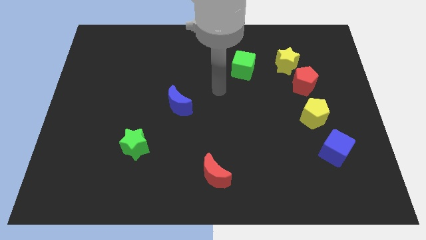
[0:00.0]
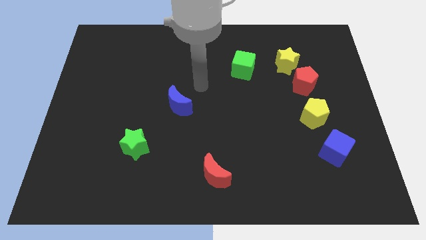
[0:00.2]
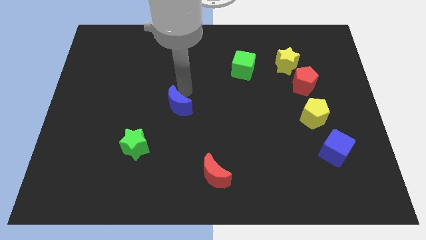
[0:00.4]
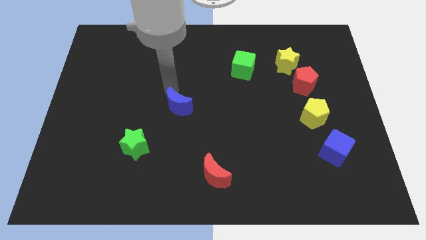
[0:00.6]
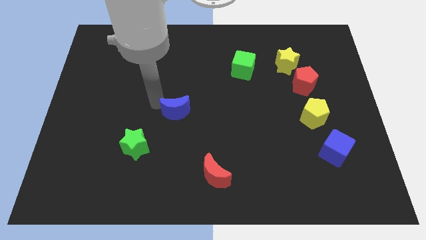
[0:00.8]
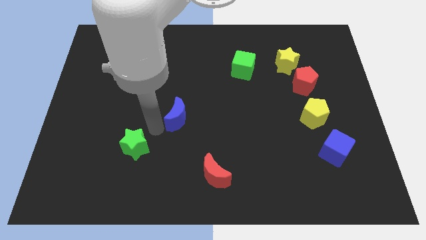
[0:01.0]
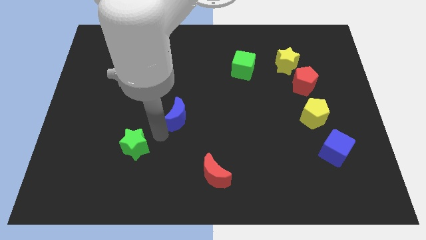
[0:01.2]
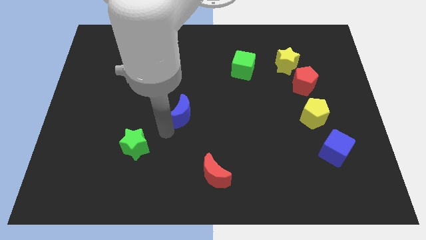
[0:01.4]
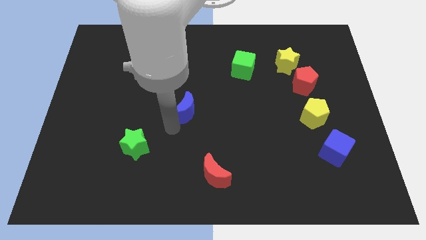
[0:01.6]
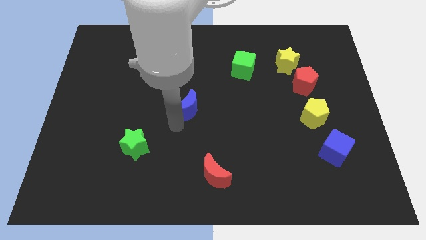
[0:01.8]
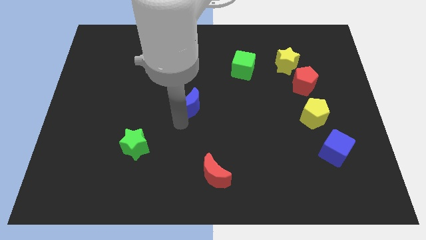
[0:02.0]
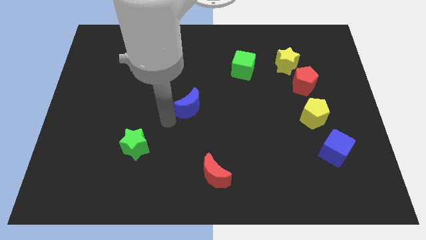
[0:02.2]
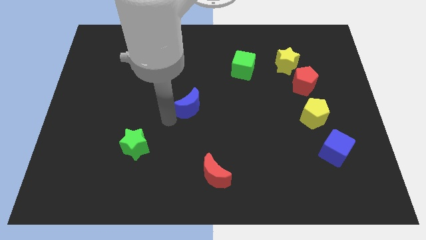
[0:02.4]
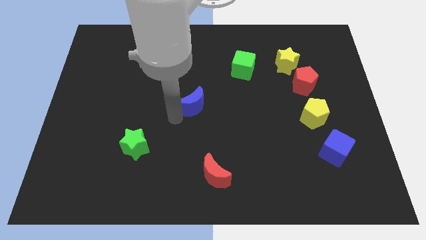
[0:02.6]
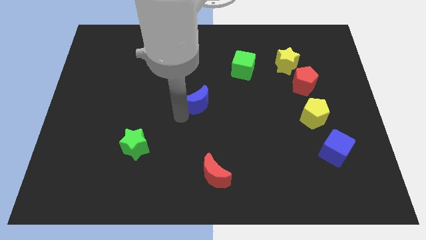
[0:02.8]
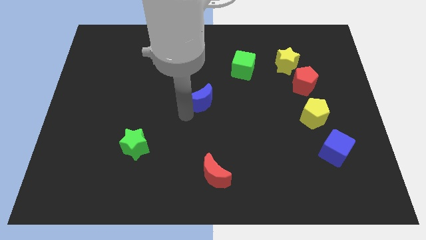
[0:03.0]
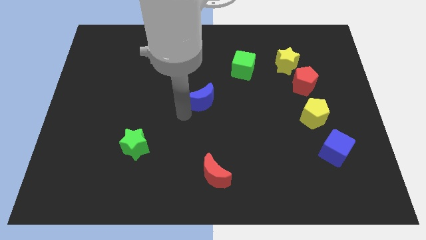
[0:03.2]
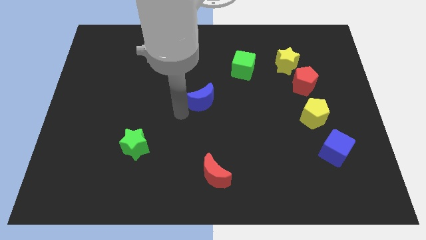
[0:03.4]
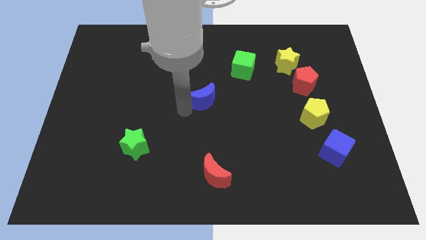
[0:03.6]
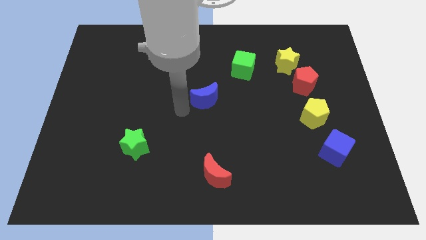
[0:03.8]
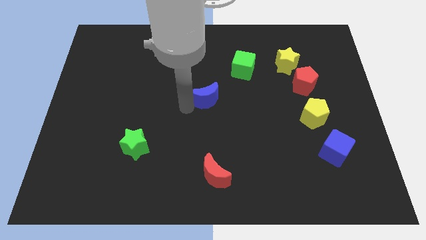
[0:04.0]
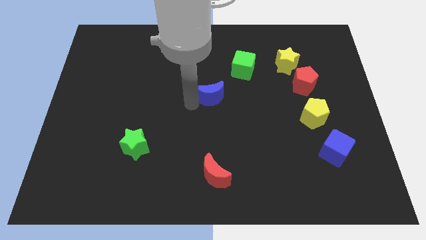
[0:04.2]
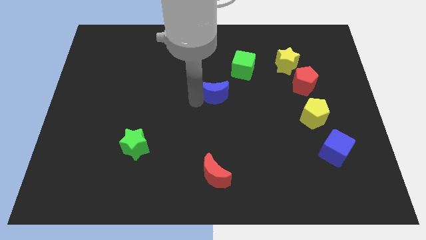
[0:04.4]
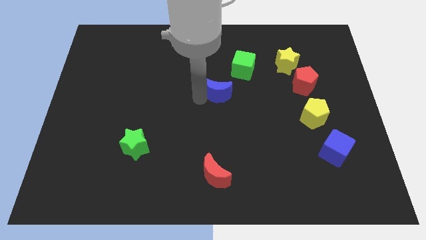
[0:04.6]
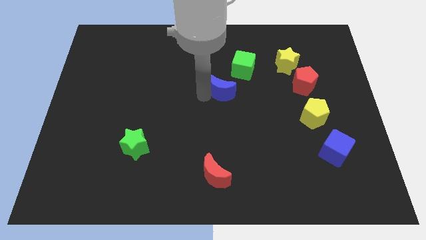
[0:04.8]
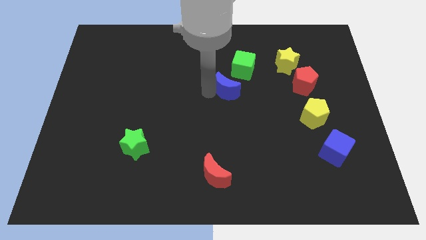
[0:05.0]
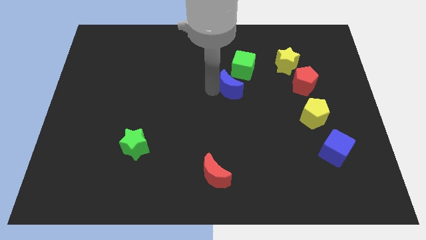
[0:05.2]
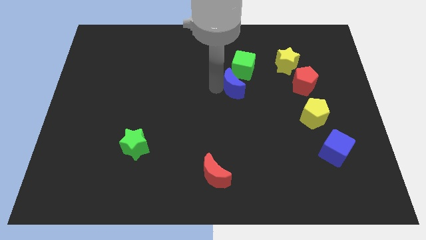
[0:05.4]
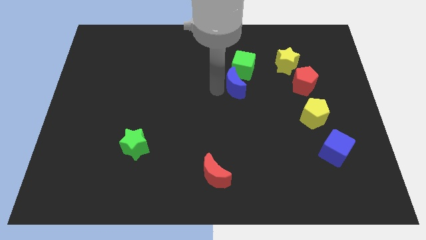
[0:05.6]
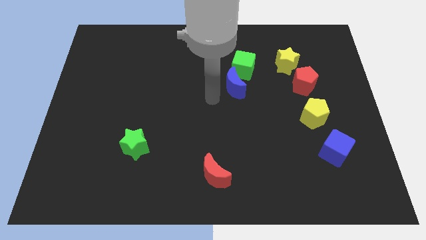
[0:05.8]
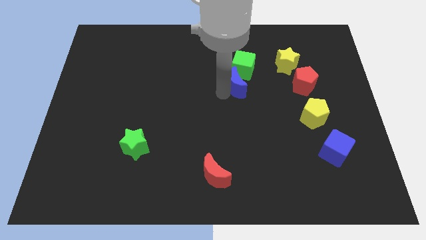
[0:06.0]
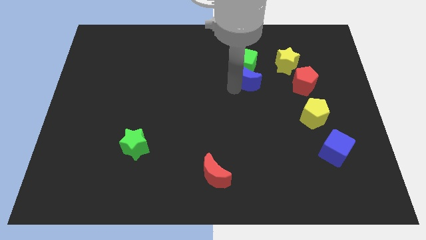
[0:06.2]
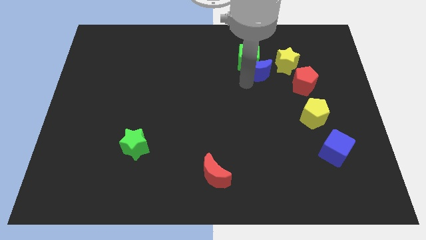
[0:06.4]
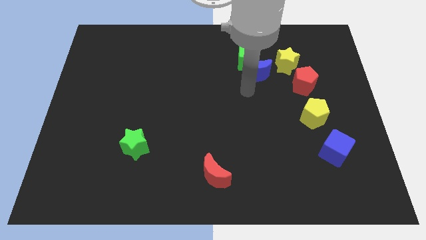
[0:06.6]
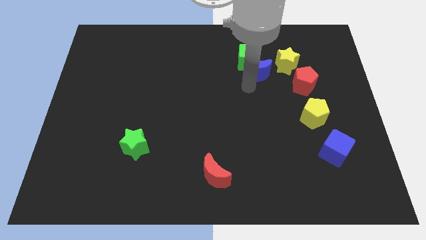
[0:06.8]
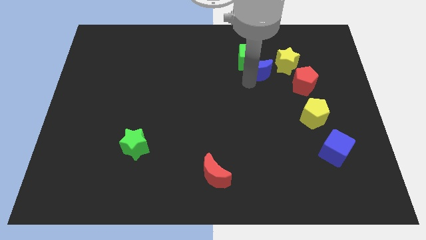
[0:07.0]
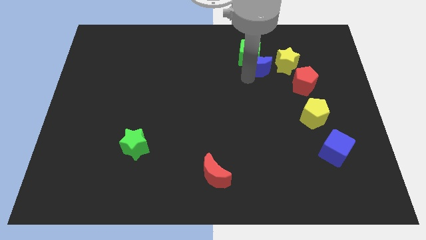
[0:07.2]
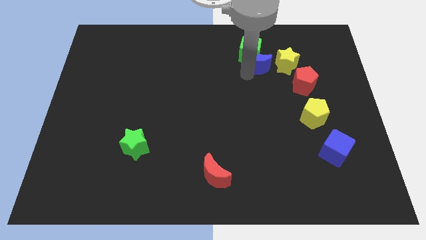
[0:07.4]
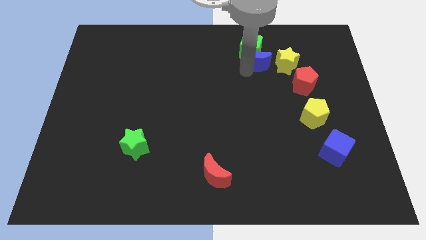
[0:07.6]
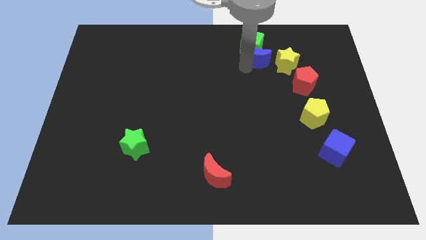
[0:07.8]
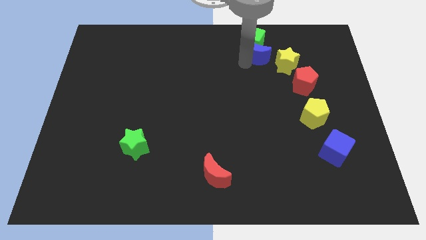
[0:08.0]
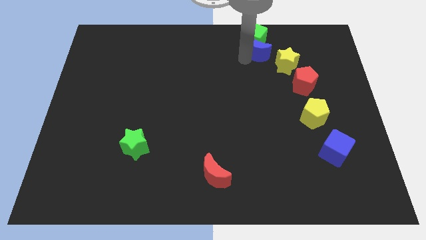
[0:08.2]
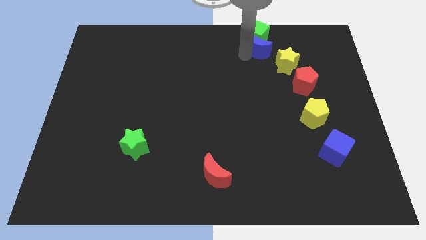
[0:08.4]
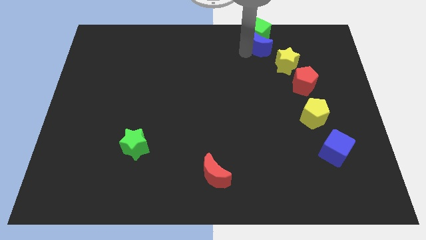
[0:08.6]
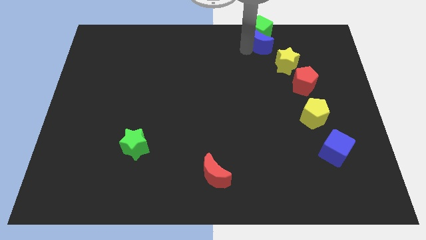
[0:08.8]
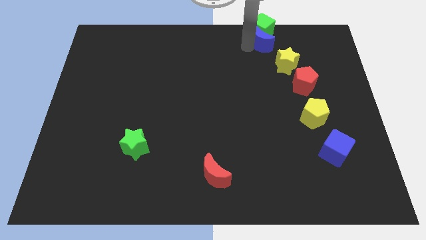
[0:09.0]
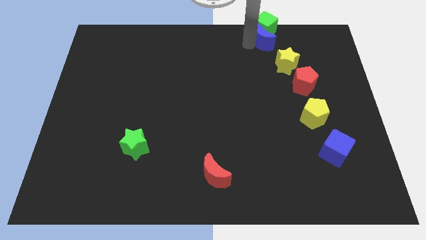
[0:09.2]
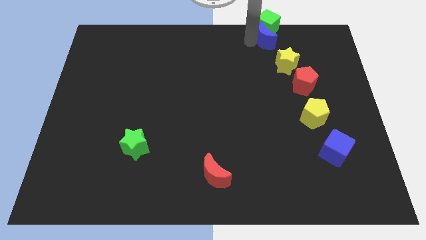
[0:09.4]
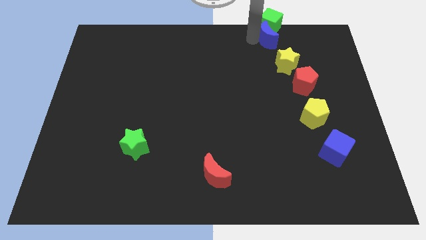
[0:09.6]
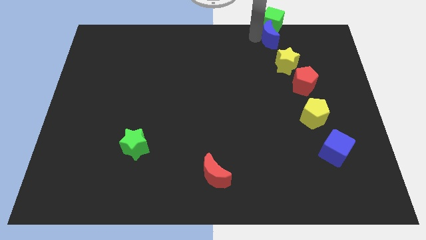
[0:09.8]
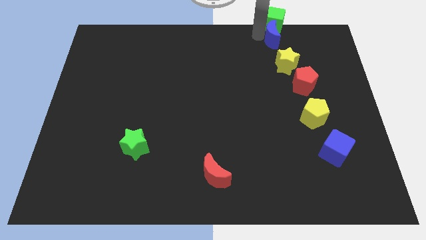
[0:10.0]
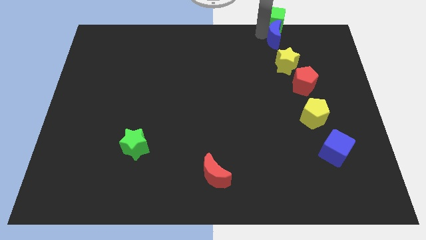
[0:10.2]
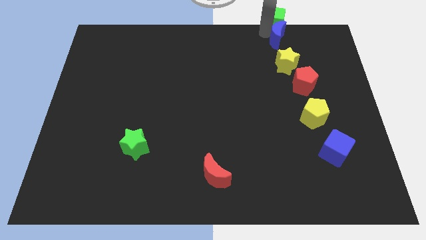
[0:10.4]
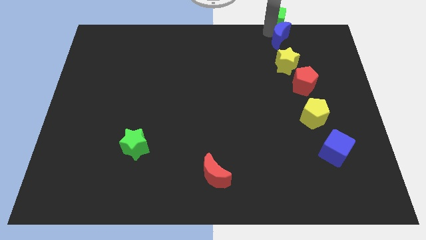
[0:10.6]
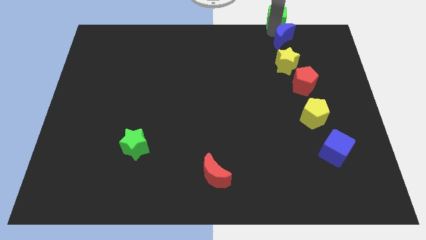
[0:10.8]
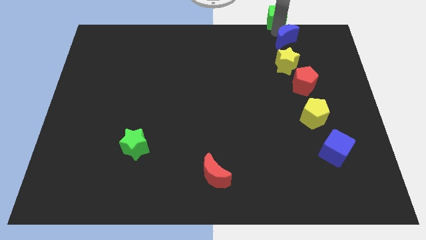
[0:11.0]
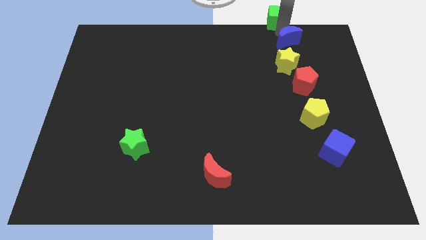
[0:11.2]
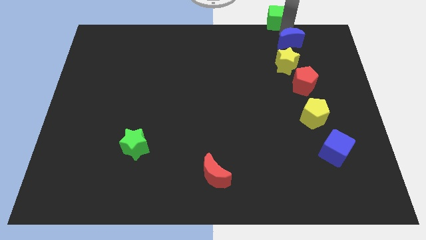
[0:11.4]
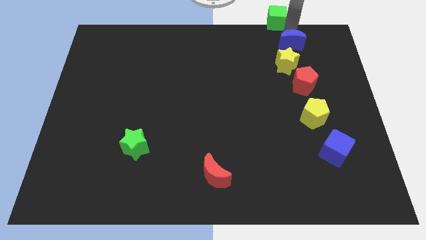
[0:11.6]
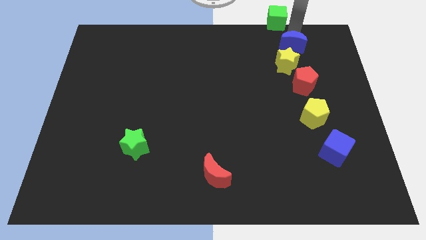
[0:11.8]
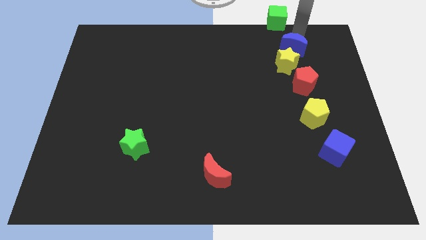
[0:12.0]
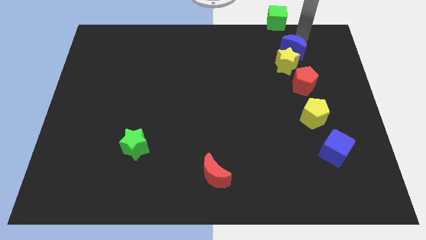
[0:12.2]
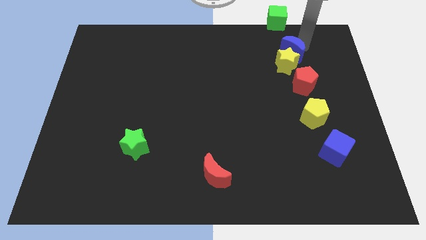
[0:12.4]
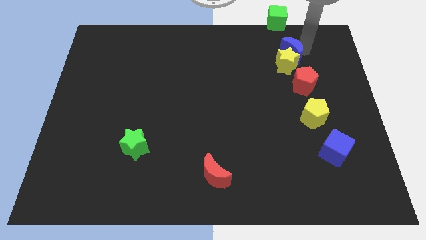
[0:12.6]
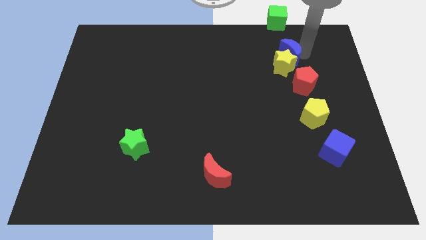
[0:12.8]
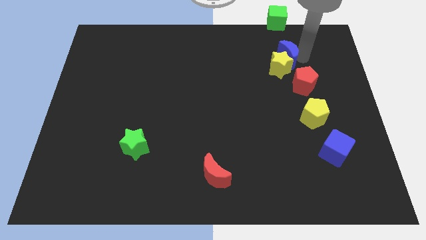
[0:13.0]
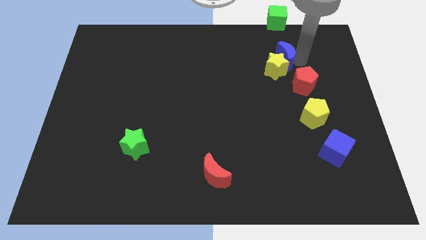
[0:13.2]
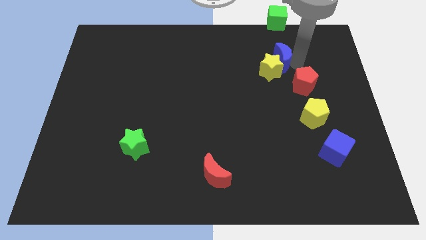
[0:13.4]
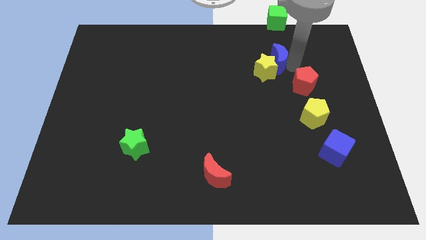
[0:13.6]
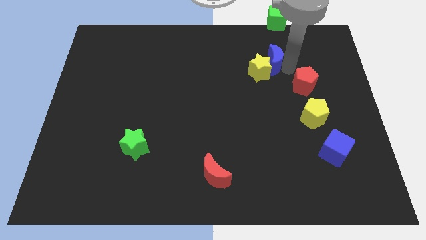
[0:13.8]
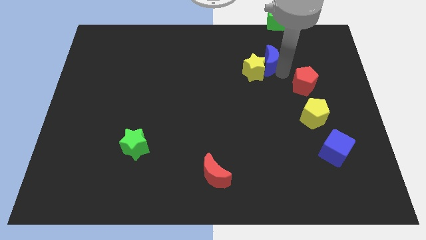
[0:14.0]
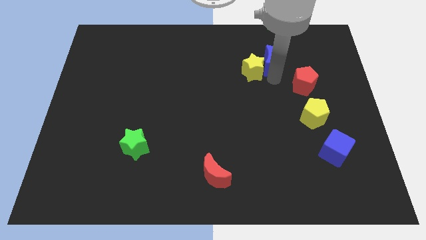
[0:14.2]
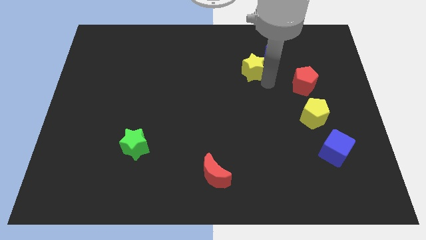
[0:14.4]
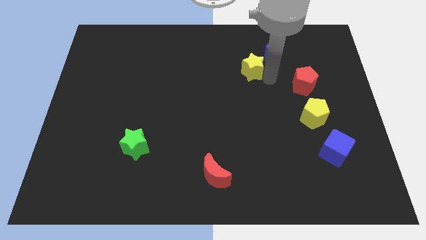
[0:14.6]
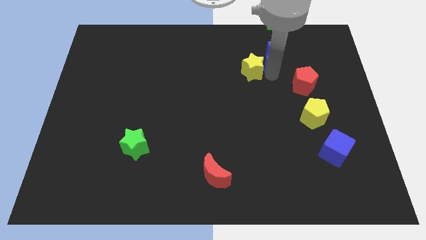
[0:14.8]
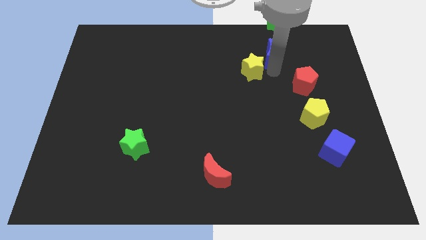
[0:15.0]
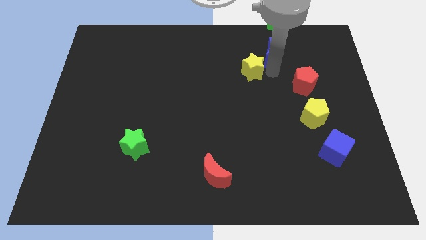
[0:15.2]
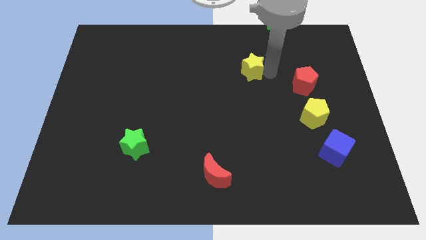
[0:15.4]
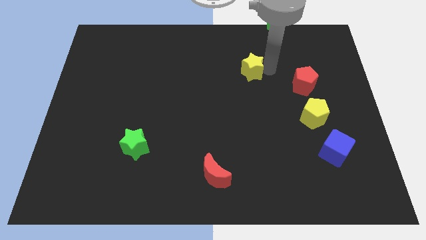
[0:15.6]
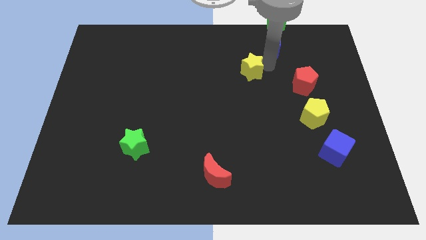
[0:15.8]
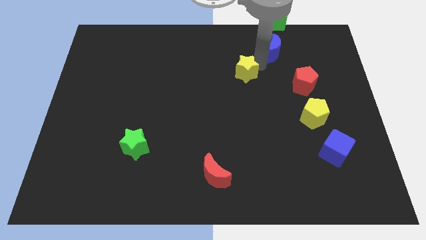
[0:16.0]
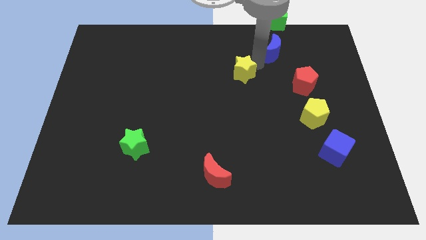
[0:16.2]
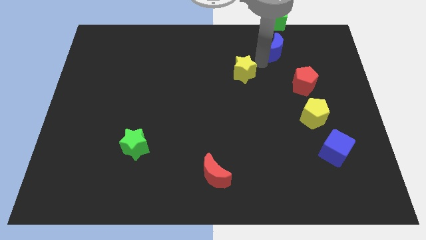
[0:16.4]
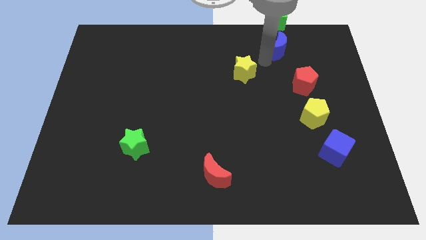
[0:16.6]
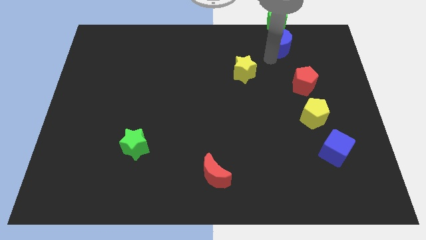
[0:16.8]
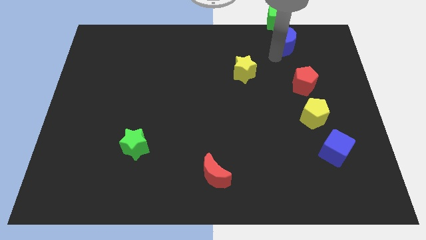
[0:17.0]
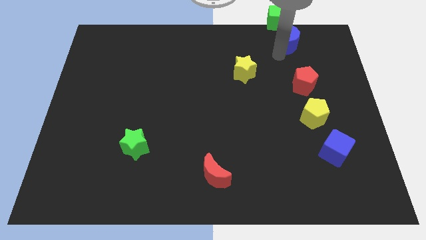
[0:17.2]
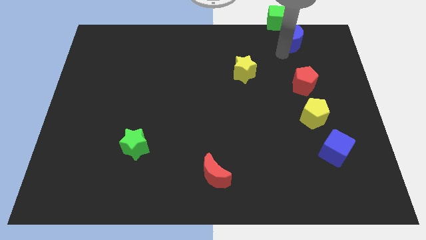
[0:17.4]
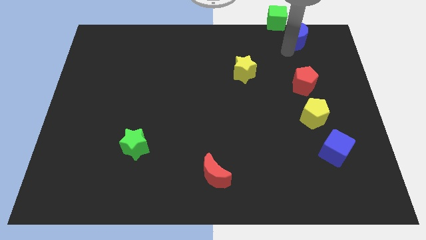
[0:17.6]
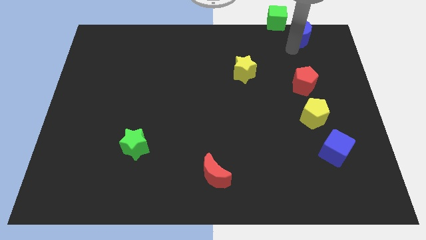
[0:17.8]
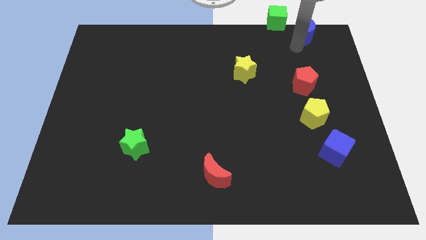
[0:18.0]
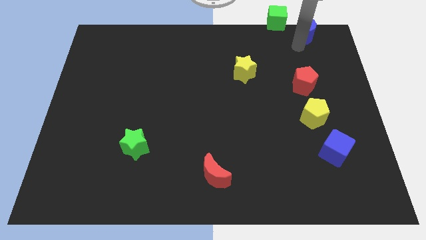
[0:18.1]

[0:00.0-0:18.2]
move the blue moon to the top right corner
